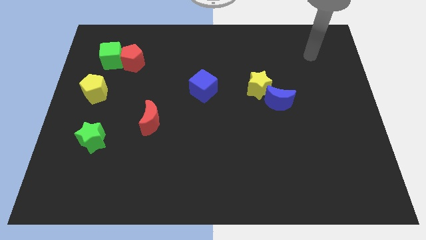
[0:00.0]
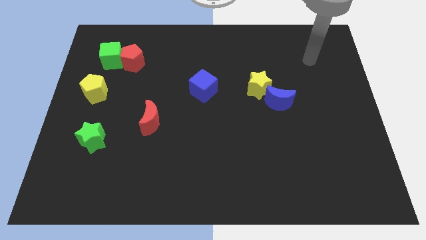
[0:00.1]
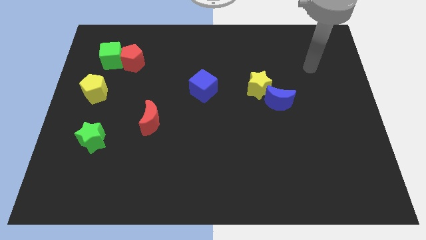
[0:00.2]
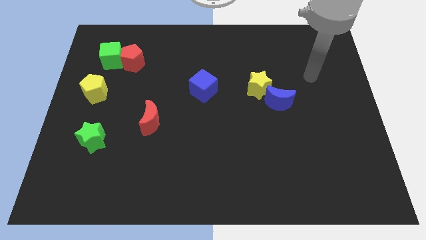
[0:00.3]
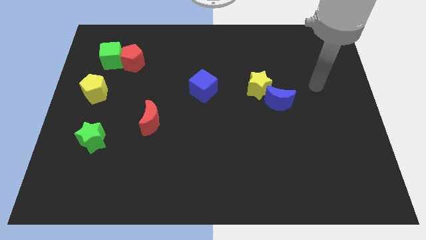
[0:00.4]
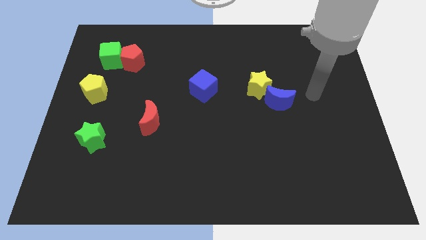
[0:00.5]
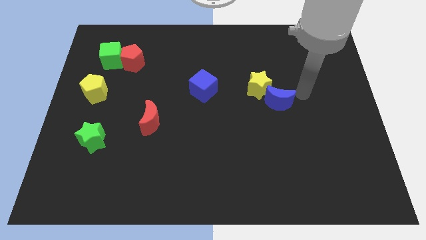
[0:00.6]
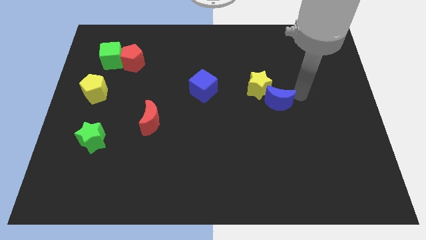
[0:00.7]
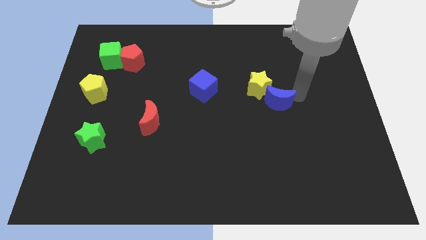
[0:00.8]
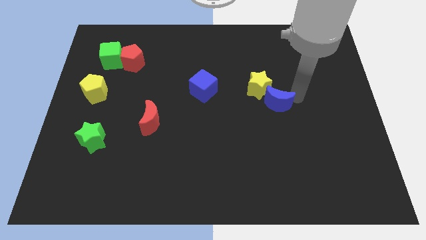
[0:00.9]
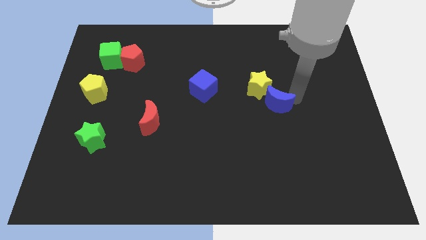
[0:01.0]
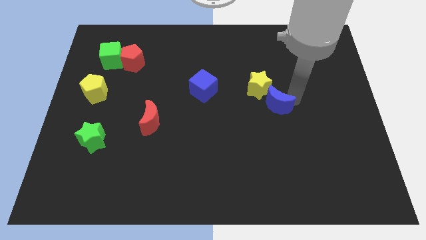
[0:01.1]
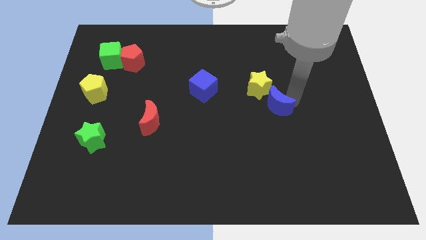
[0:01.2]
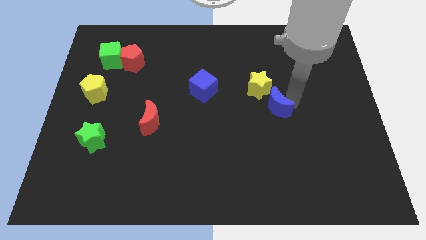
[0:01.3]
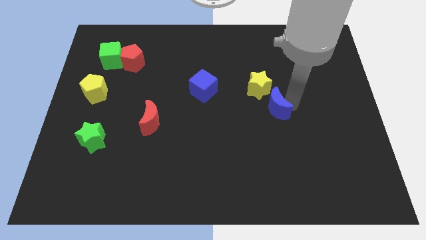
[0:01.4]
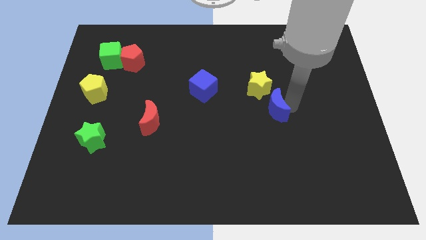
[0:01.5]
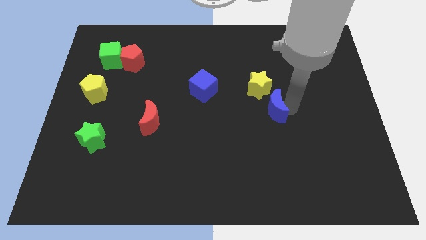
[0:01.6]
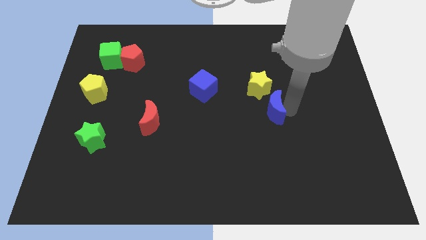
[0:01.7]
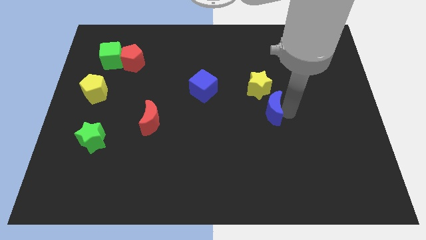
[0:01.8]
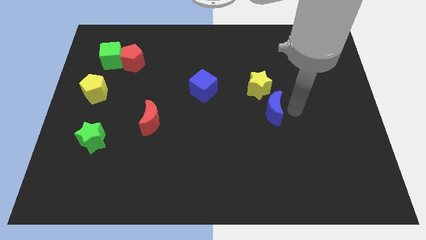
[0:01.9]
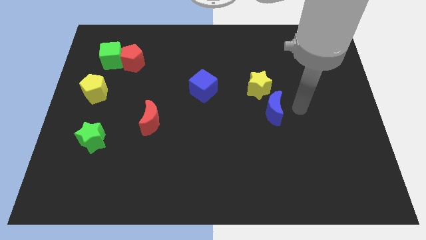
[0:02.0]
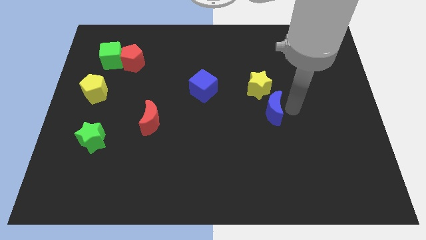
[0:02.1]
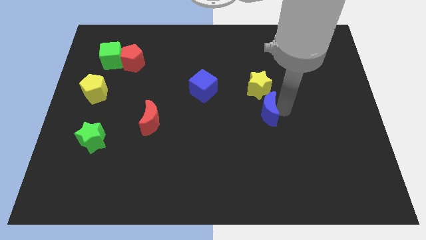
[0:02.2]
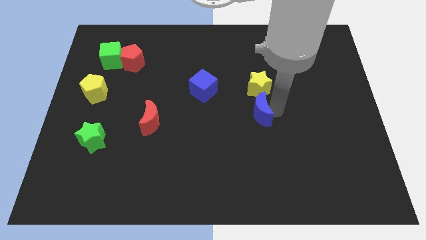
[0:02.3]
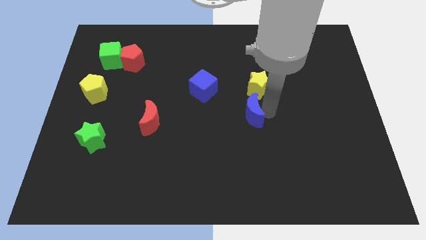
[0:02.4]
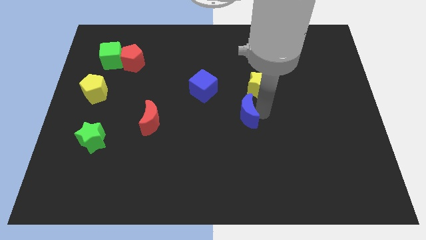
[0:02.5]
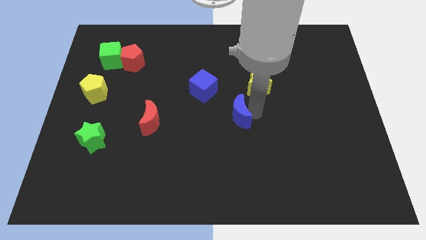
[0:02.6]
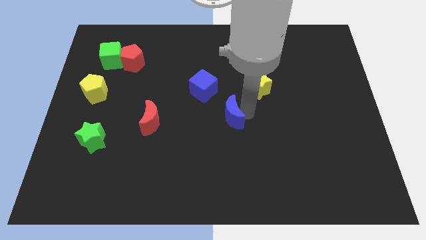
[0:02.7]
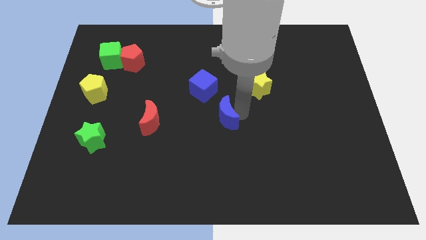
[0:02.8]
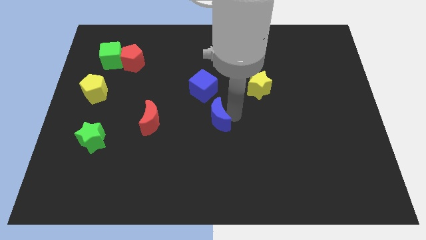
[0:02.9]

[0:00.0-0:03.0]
slide the blue moon right of the red moon

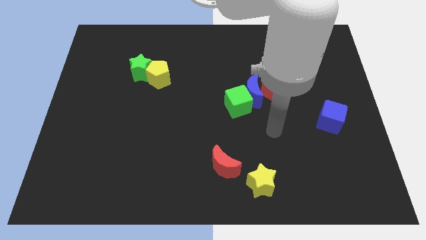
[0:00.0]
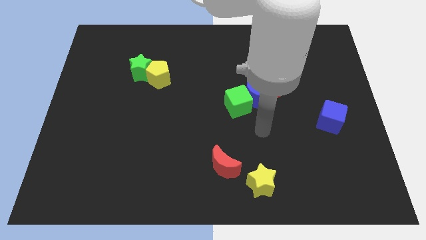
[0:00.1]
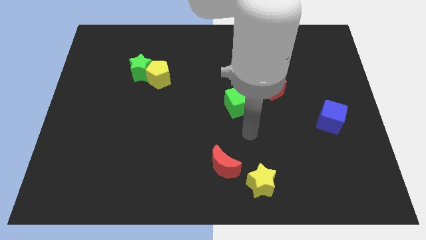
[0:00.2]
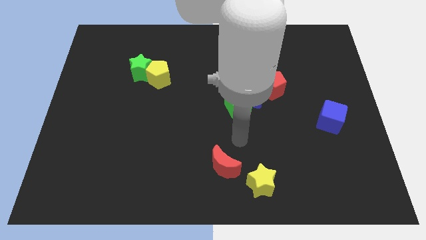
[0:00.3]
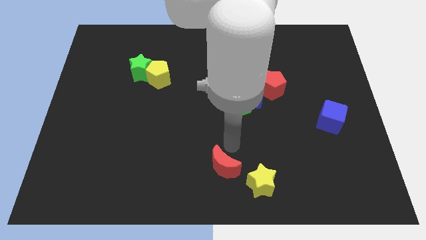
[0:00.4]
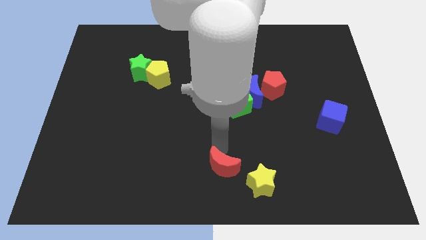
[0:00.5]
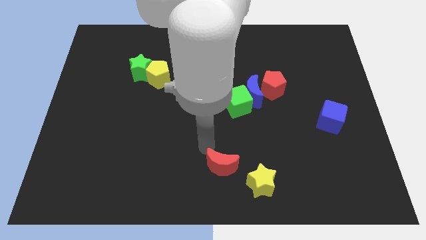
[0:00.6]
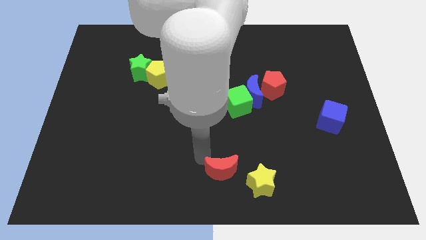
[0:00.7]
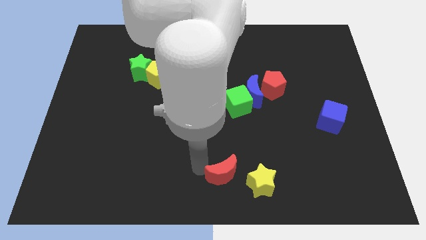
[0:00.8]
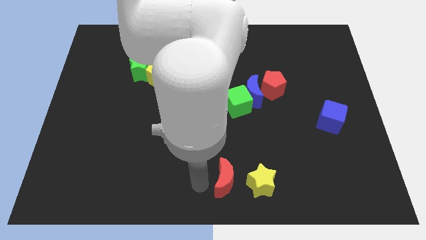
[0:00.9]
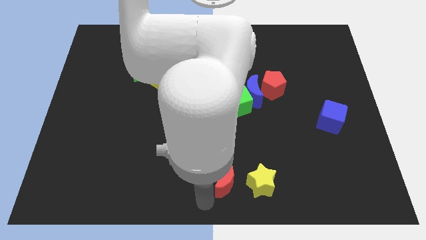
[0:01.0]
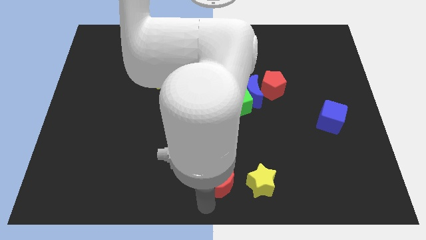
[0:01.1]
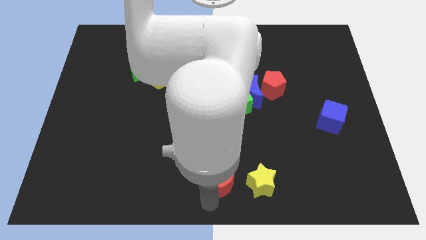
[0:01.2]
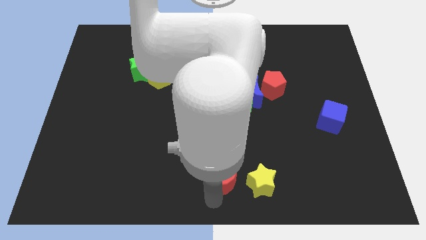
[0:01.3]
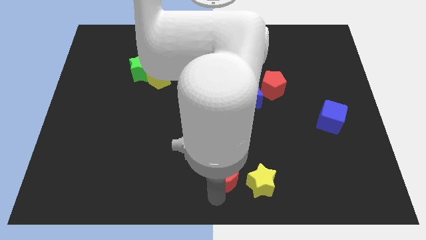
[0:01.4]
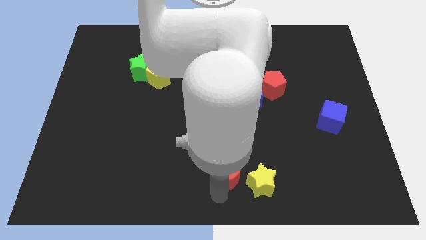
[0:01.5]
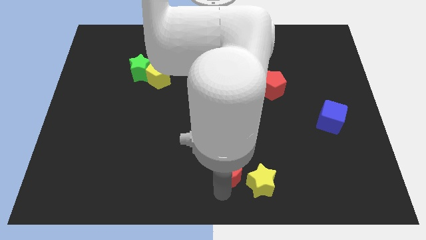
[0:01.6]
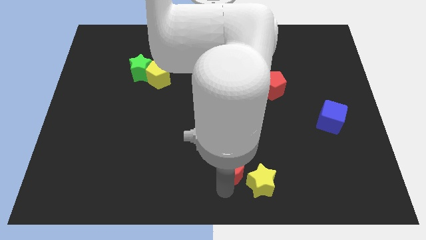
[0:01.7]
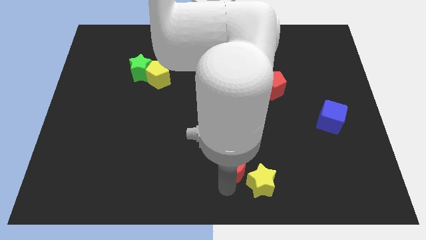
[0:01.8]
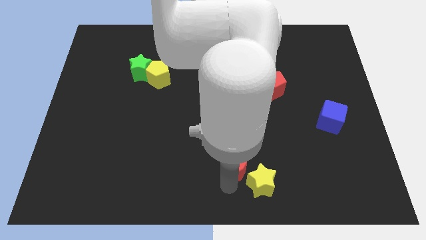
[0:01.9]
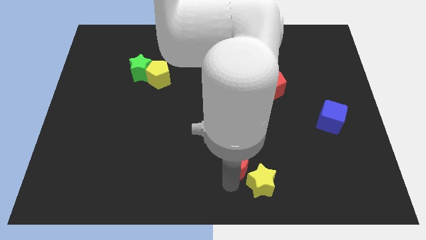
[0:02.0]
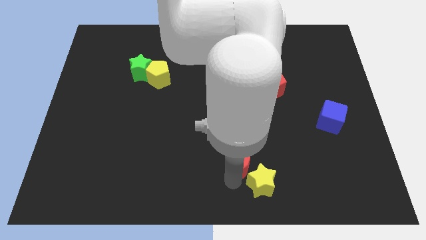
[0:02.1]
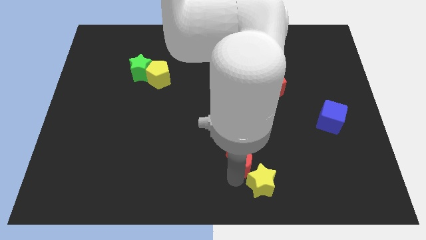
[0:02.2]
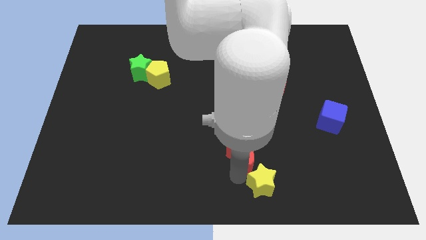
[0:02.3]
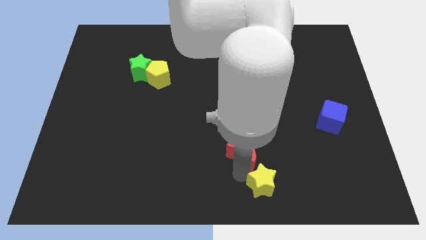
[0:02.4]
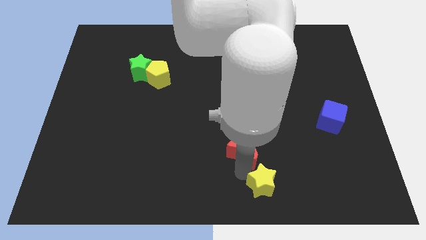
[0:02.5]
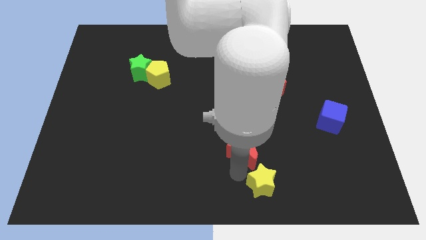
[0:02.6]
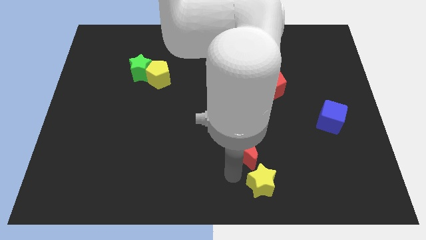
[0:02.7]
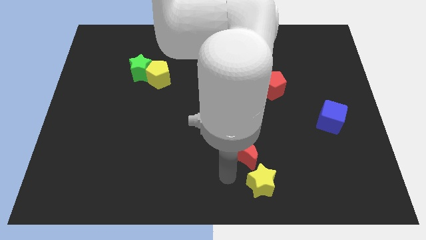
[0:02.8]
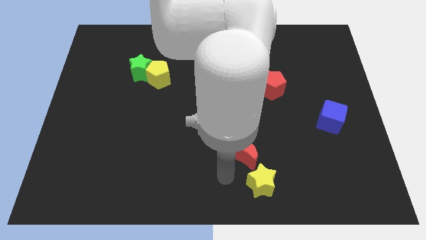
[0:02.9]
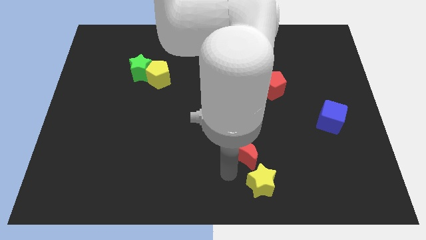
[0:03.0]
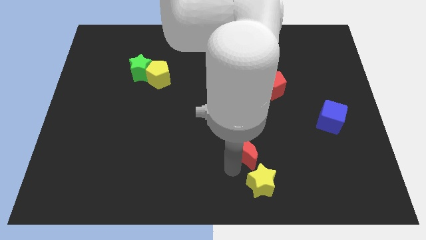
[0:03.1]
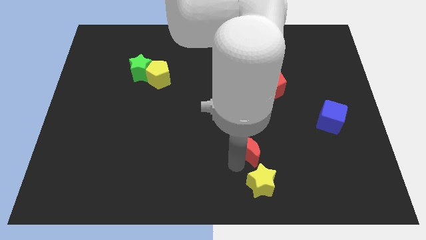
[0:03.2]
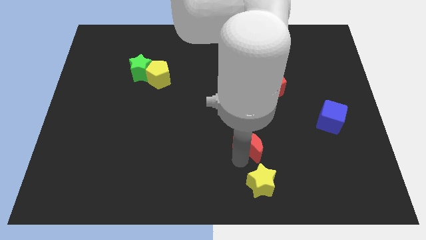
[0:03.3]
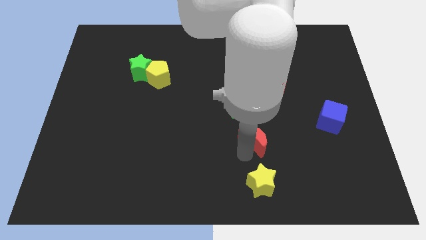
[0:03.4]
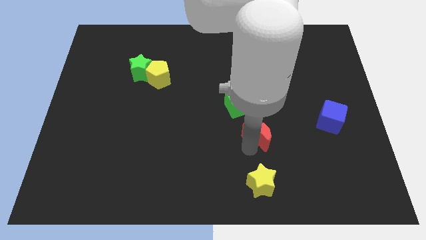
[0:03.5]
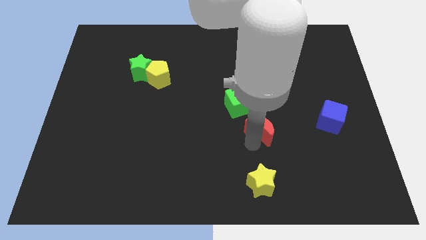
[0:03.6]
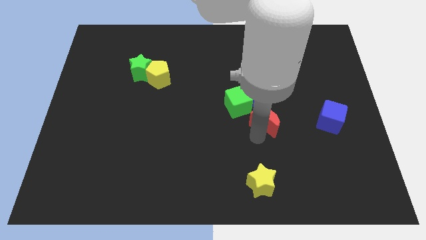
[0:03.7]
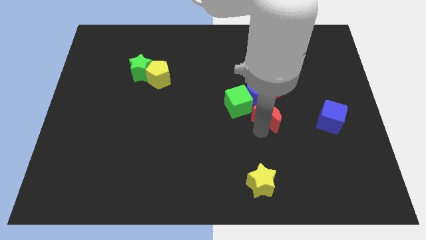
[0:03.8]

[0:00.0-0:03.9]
move the red moon to the right of the green cube

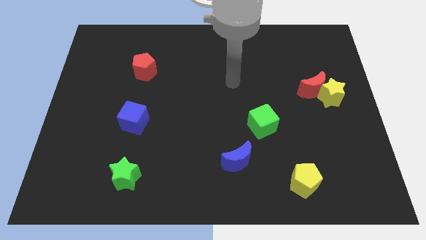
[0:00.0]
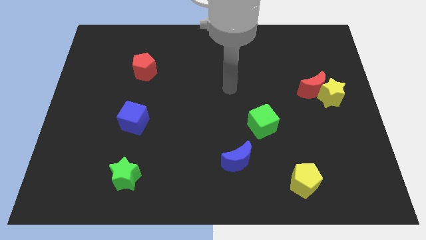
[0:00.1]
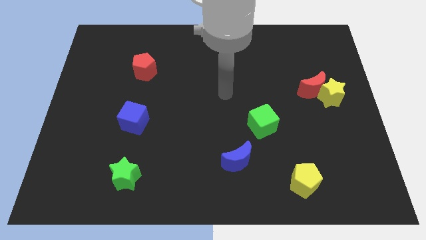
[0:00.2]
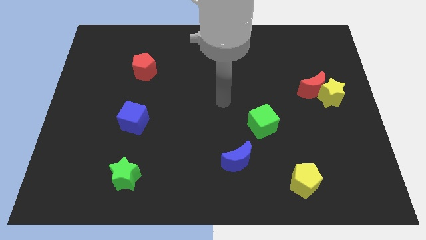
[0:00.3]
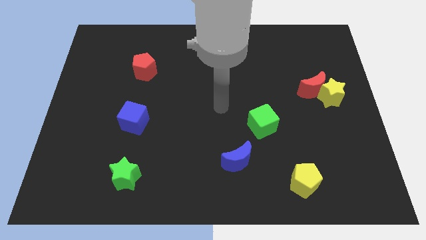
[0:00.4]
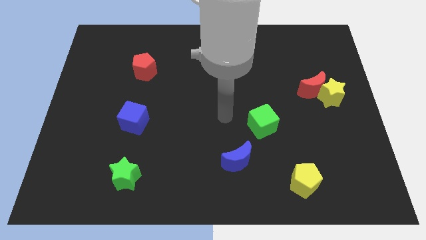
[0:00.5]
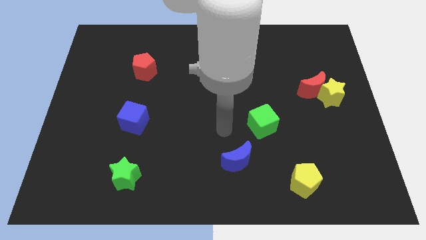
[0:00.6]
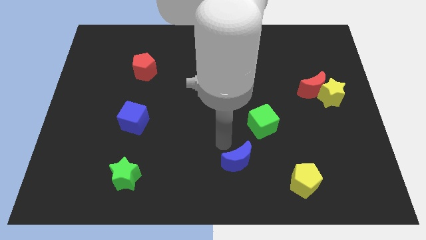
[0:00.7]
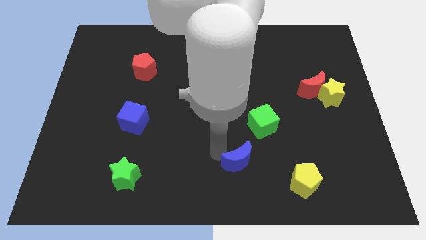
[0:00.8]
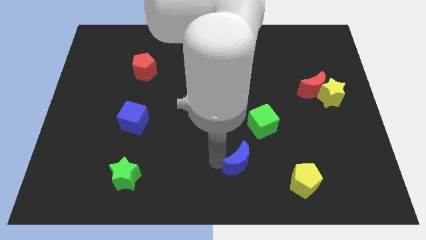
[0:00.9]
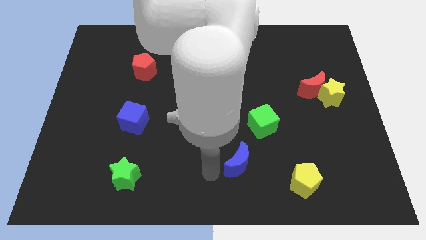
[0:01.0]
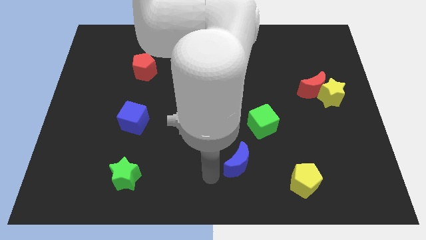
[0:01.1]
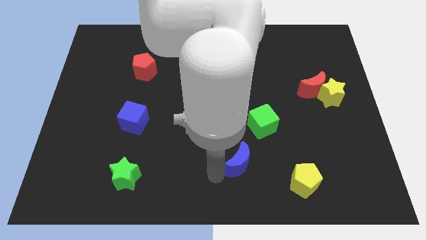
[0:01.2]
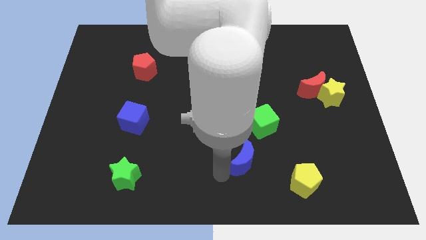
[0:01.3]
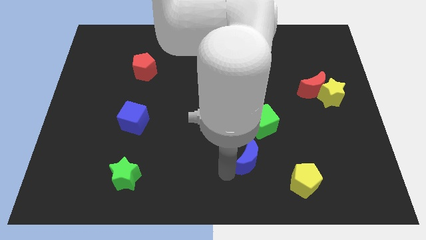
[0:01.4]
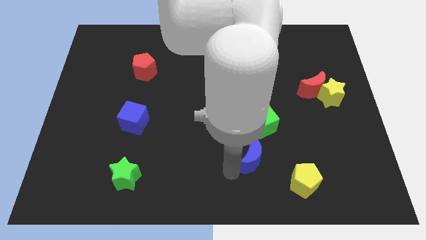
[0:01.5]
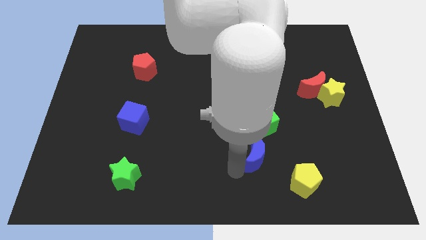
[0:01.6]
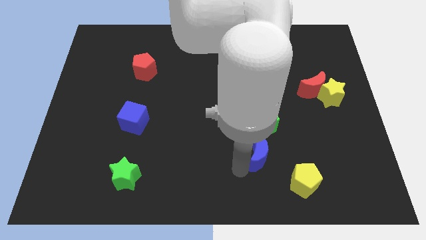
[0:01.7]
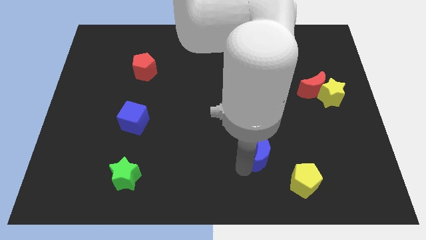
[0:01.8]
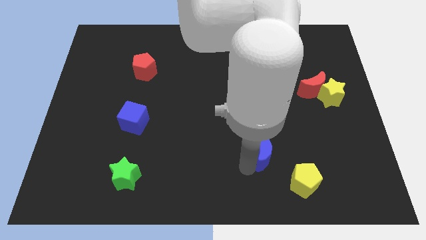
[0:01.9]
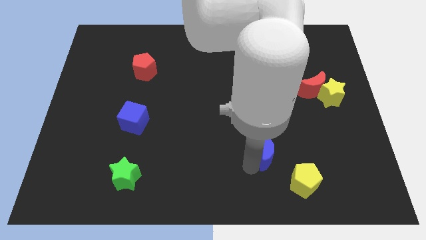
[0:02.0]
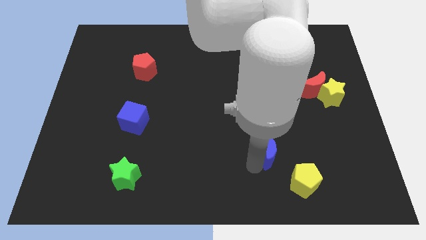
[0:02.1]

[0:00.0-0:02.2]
push the blue moon diagonally down and to the right of the green cube
